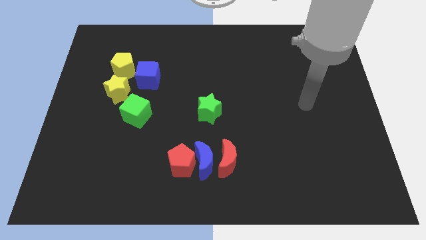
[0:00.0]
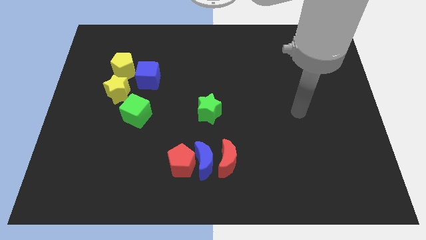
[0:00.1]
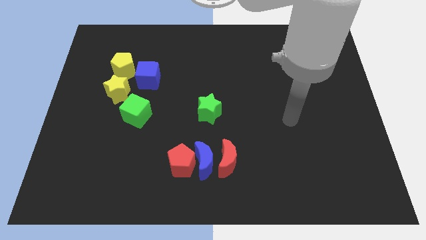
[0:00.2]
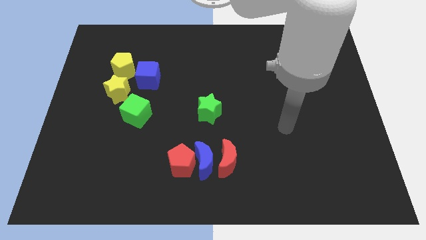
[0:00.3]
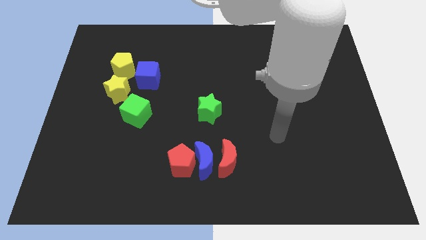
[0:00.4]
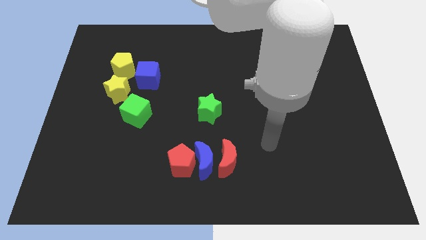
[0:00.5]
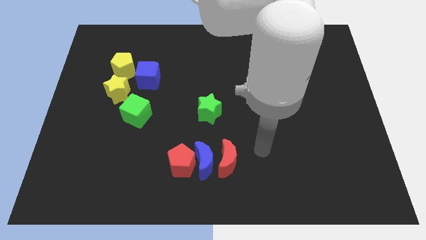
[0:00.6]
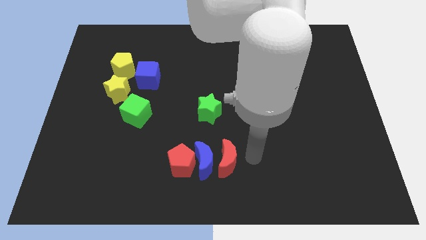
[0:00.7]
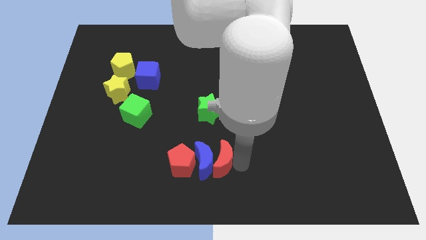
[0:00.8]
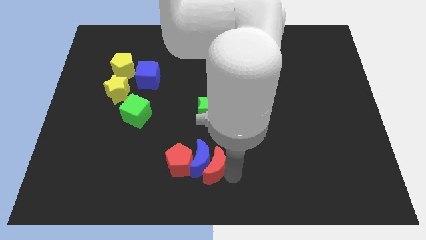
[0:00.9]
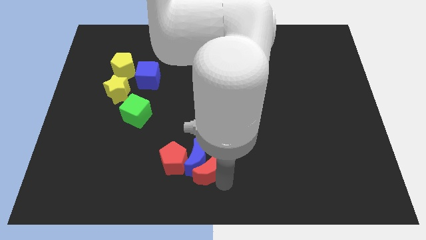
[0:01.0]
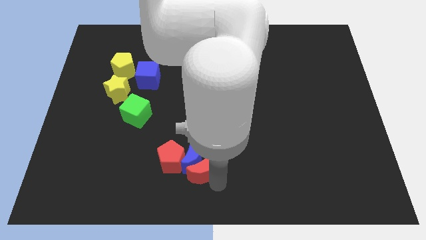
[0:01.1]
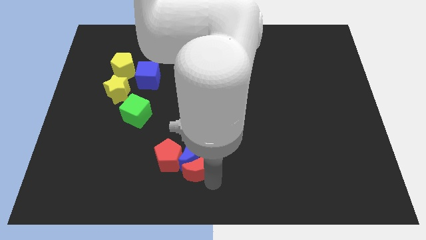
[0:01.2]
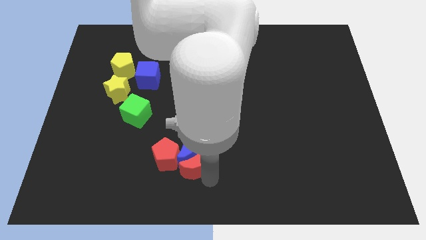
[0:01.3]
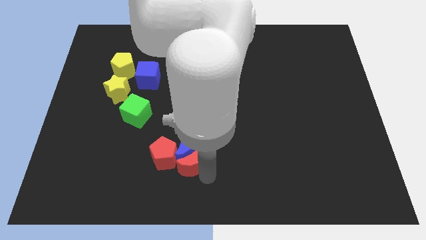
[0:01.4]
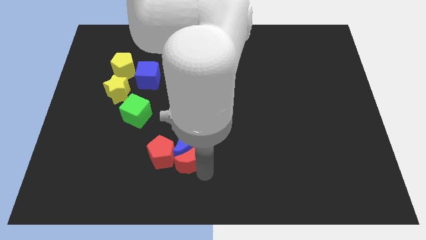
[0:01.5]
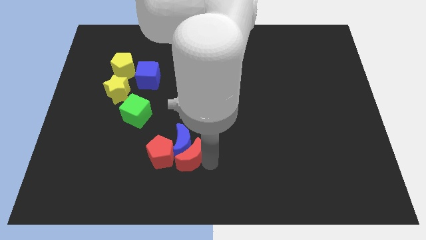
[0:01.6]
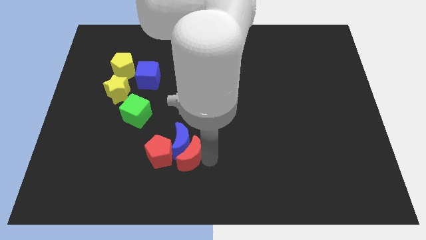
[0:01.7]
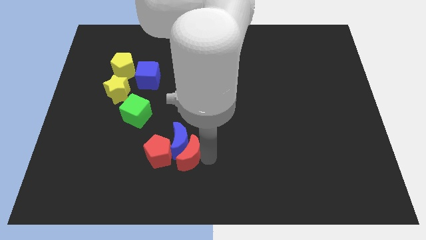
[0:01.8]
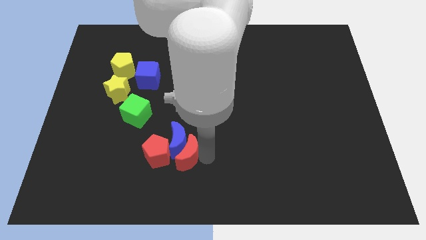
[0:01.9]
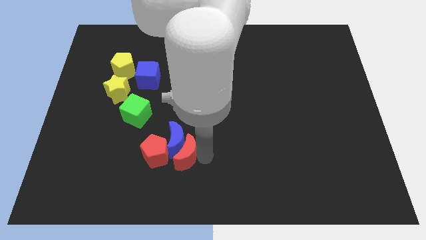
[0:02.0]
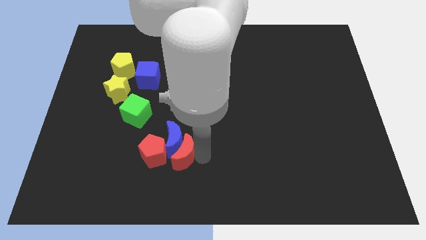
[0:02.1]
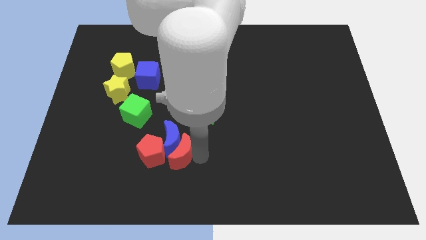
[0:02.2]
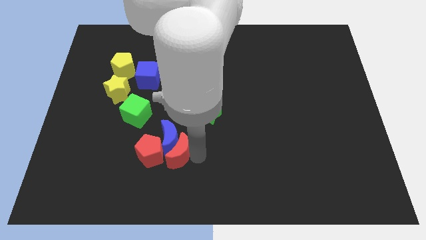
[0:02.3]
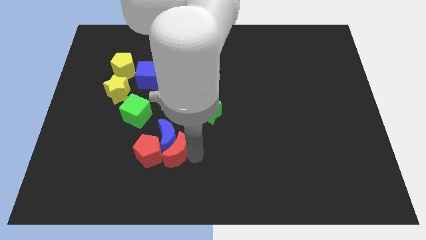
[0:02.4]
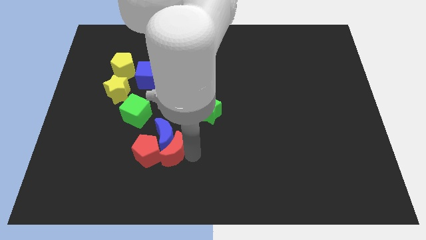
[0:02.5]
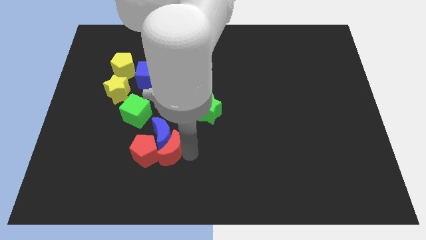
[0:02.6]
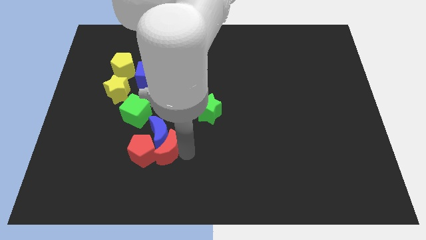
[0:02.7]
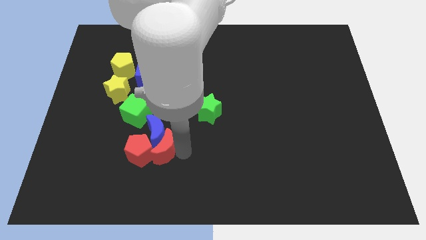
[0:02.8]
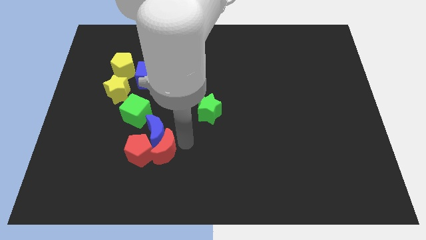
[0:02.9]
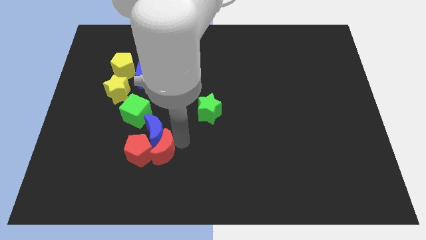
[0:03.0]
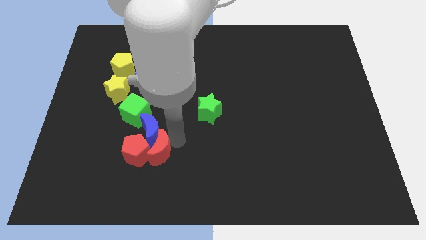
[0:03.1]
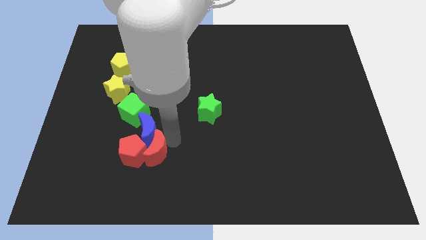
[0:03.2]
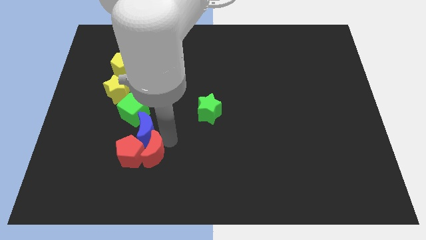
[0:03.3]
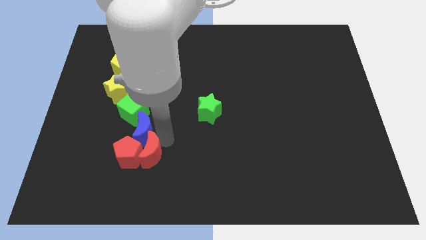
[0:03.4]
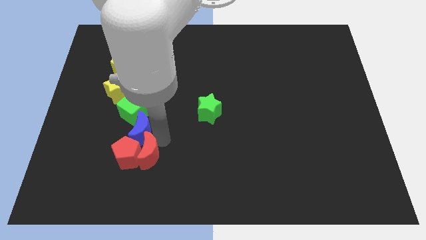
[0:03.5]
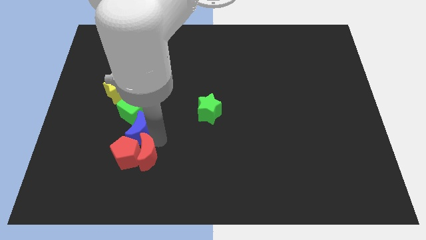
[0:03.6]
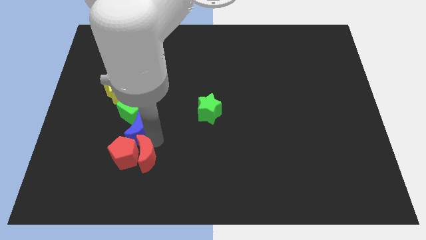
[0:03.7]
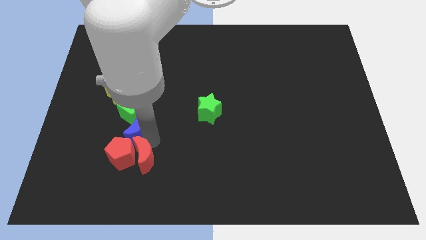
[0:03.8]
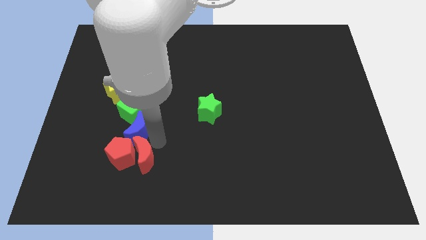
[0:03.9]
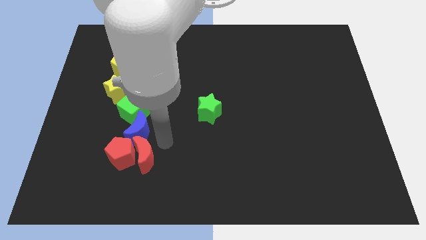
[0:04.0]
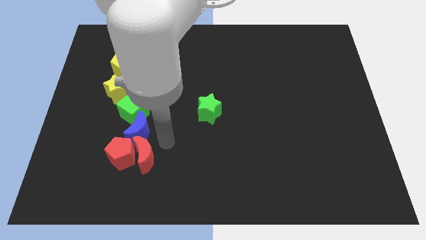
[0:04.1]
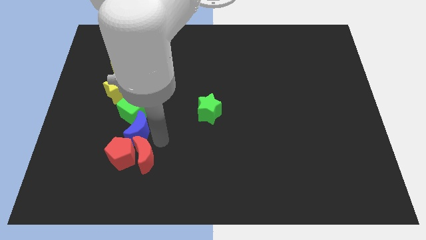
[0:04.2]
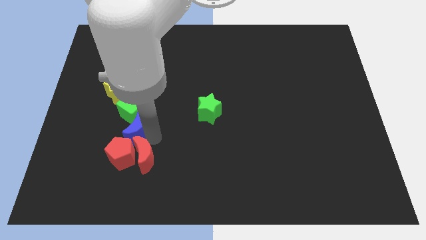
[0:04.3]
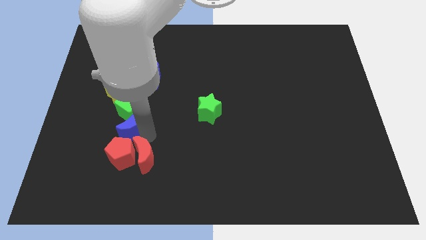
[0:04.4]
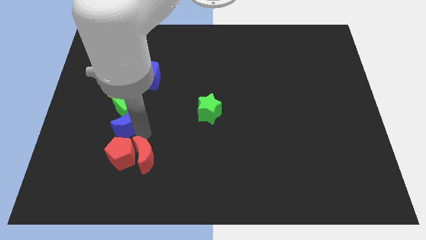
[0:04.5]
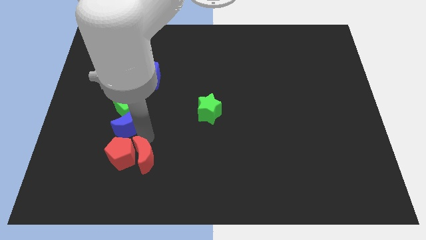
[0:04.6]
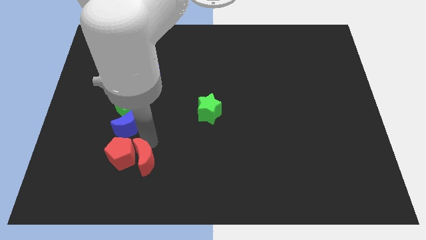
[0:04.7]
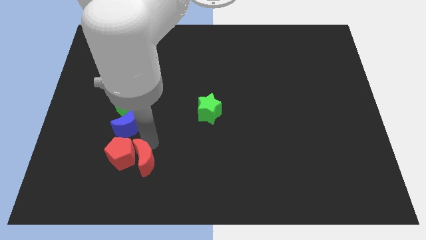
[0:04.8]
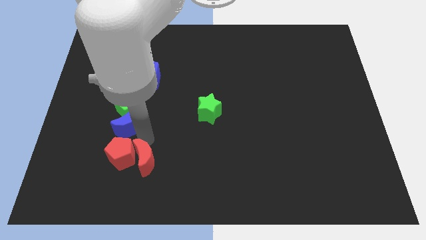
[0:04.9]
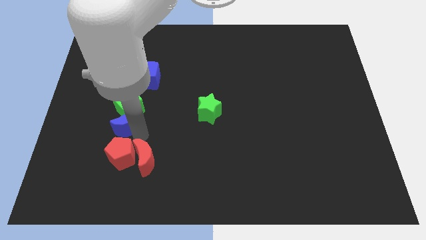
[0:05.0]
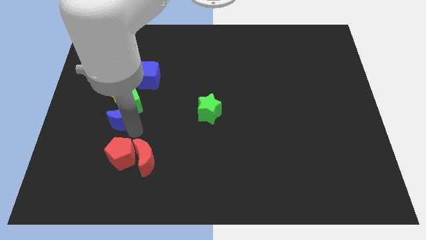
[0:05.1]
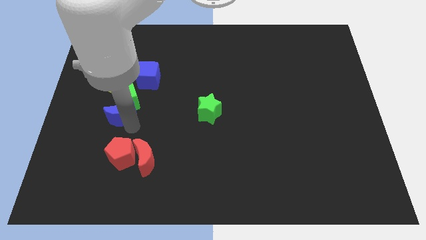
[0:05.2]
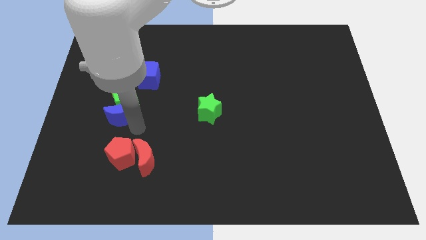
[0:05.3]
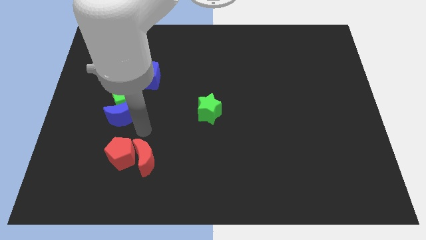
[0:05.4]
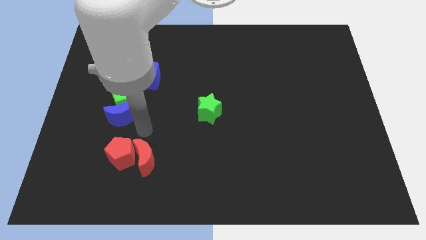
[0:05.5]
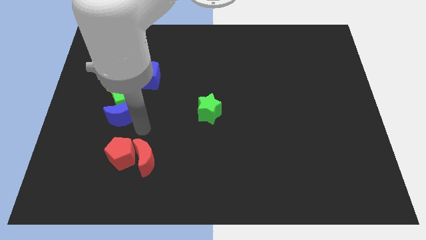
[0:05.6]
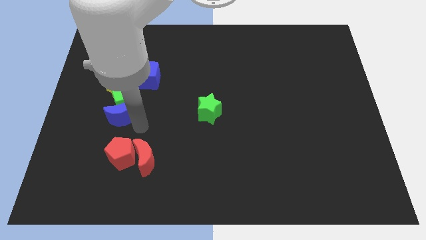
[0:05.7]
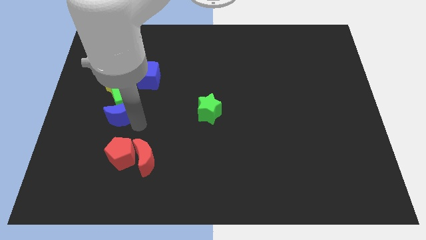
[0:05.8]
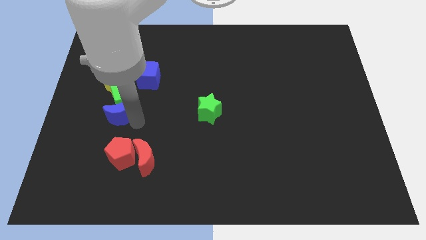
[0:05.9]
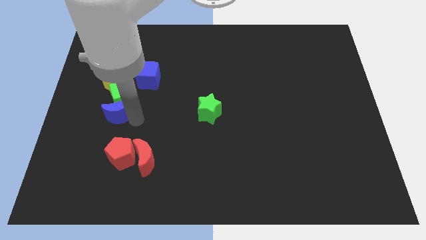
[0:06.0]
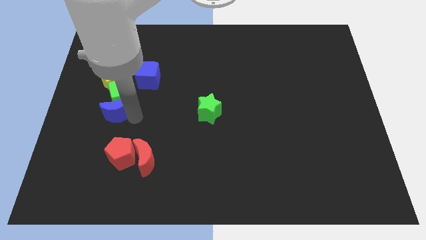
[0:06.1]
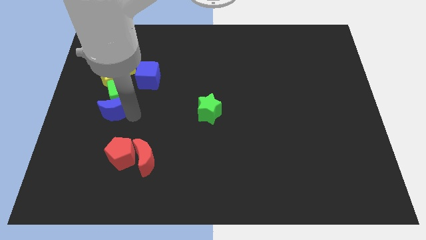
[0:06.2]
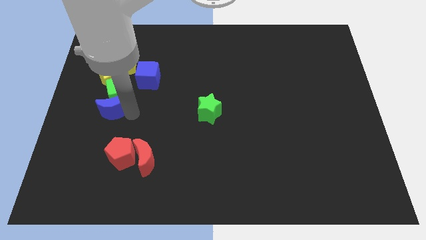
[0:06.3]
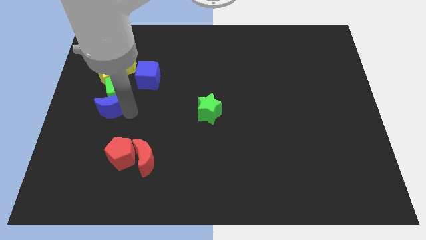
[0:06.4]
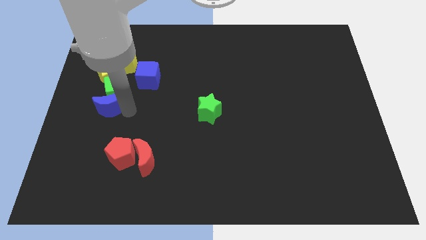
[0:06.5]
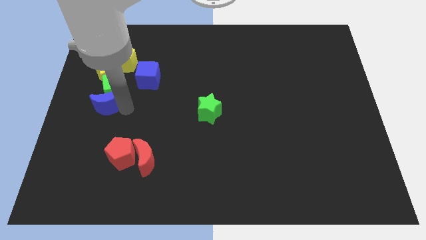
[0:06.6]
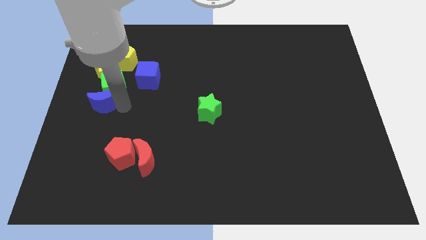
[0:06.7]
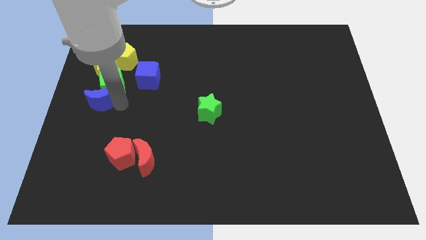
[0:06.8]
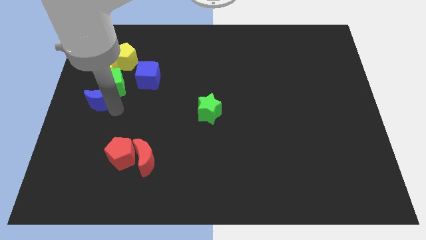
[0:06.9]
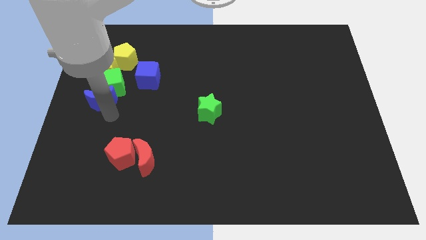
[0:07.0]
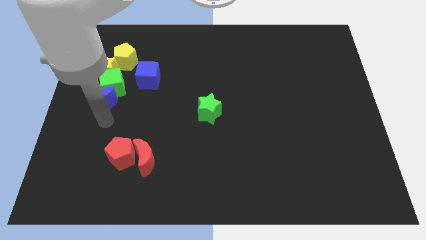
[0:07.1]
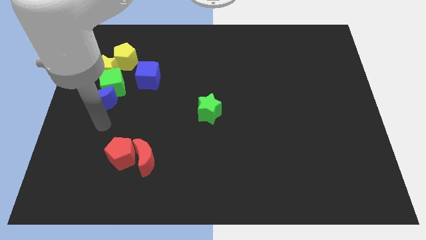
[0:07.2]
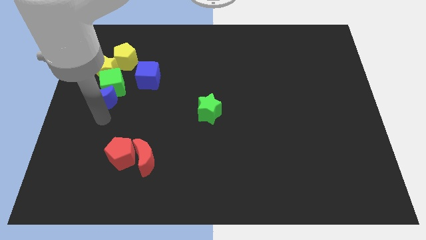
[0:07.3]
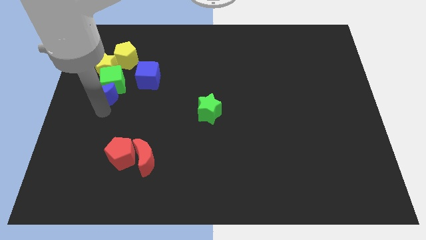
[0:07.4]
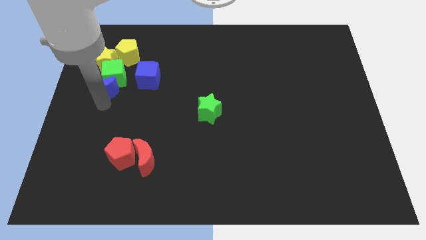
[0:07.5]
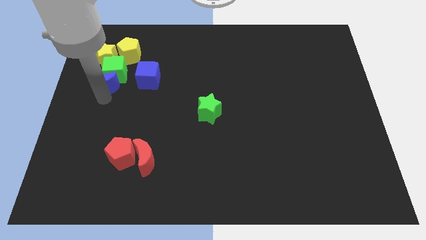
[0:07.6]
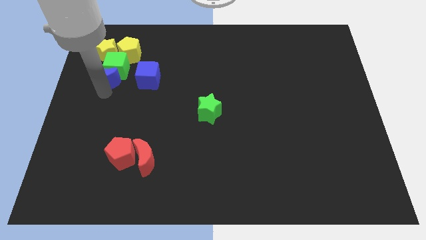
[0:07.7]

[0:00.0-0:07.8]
slide the blue moon to the bottom left side of the yellow pentagon
